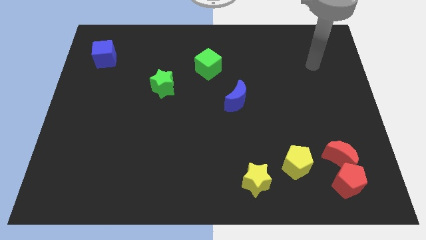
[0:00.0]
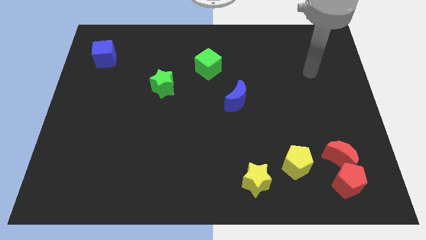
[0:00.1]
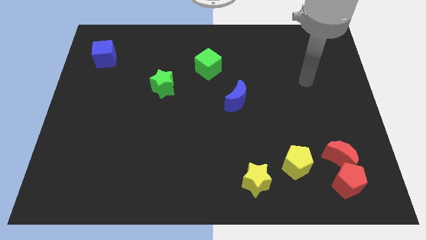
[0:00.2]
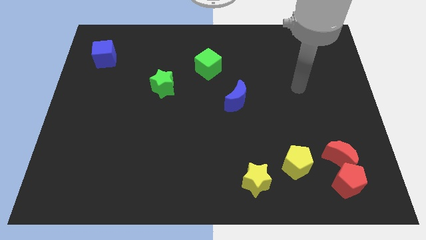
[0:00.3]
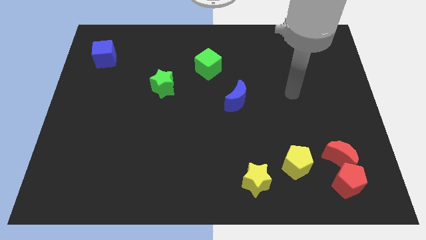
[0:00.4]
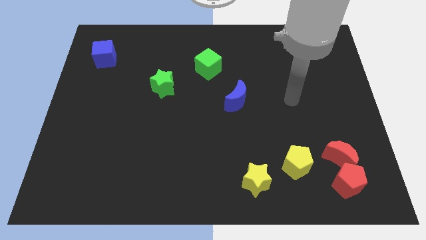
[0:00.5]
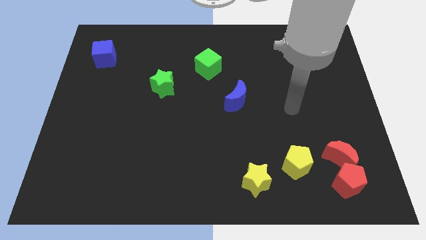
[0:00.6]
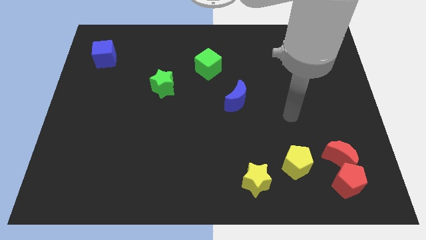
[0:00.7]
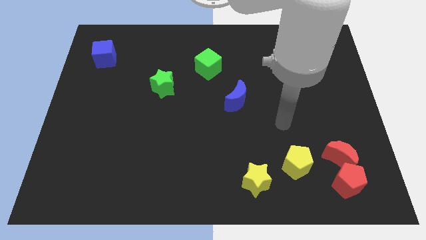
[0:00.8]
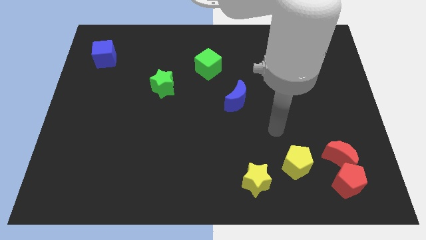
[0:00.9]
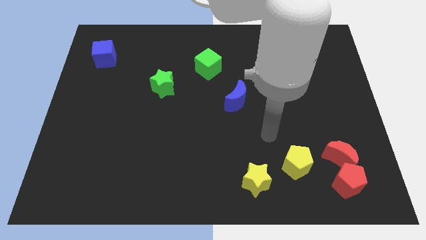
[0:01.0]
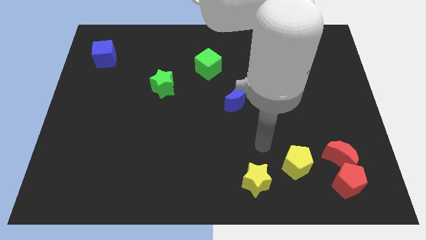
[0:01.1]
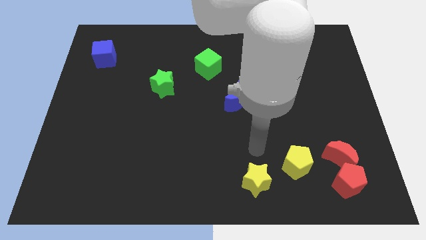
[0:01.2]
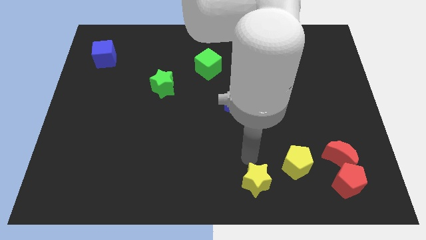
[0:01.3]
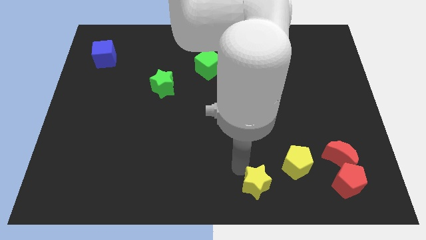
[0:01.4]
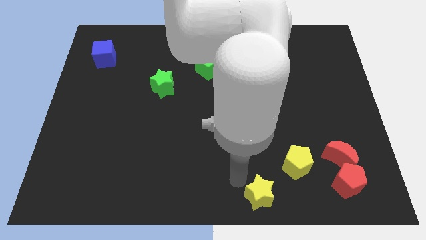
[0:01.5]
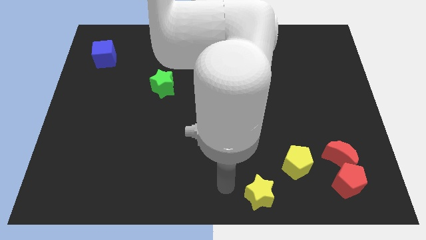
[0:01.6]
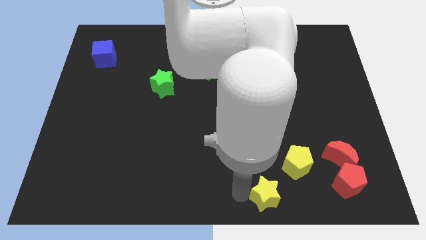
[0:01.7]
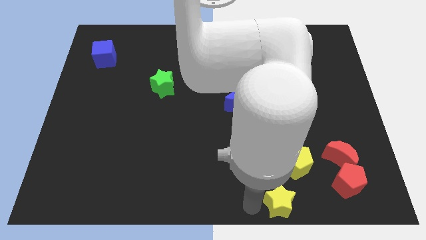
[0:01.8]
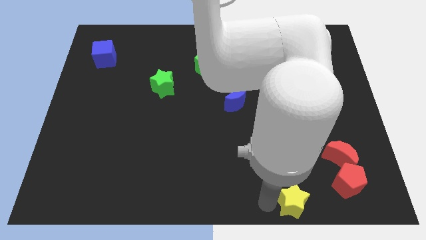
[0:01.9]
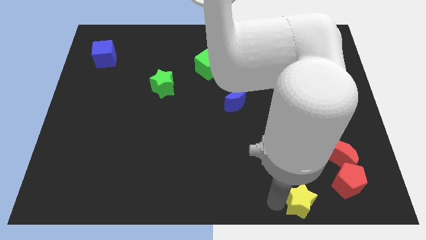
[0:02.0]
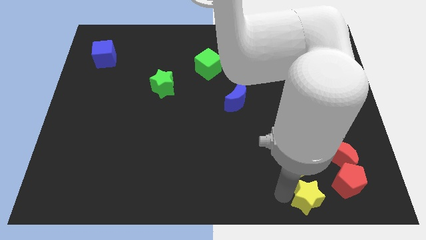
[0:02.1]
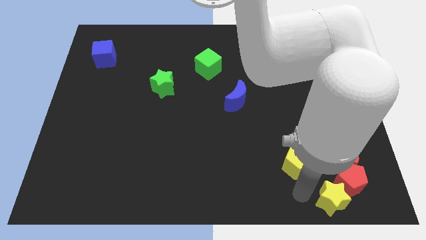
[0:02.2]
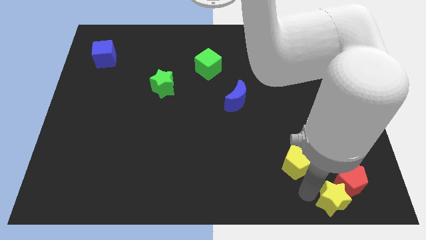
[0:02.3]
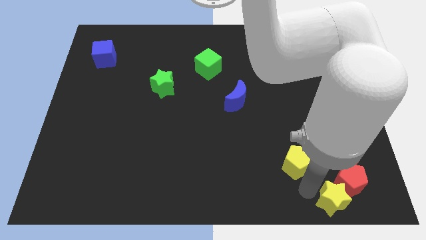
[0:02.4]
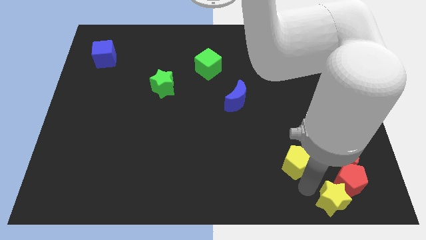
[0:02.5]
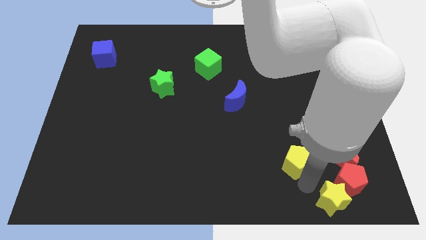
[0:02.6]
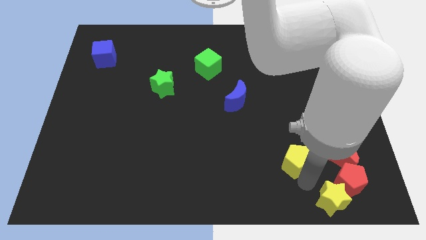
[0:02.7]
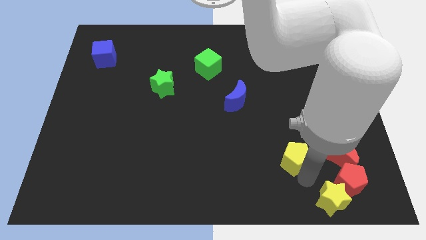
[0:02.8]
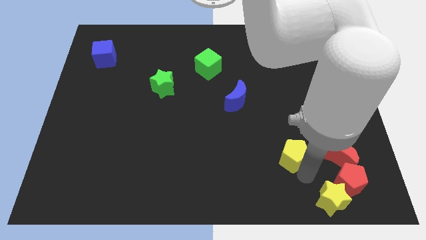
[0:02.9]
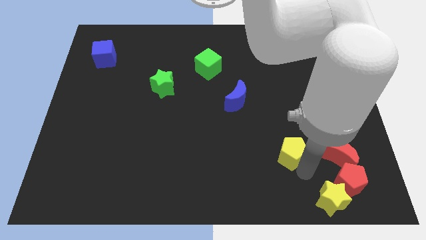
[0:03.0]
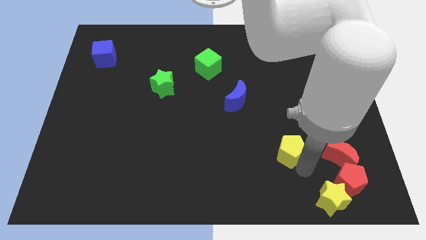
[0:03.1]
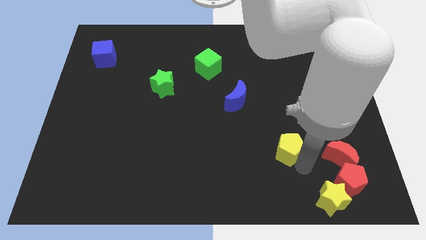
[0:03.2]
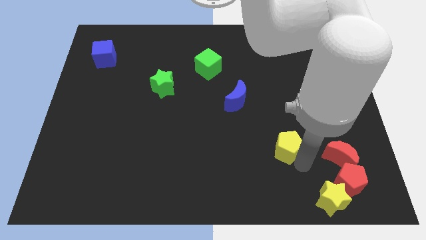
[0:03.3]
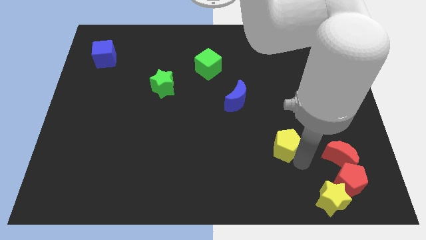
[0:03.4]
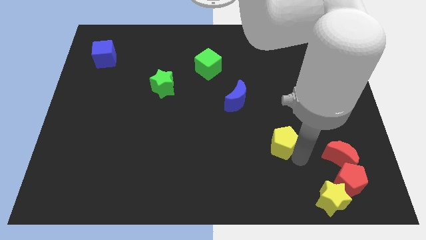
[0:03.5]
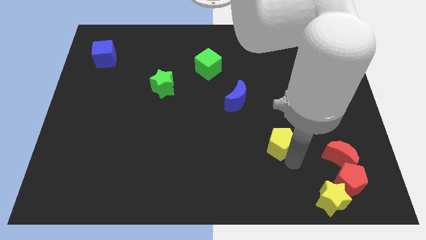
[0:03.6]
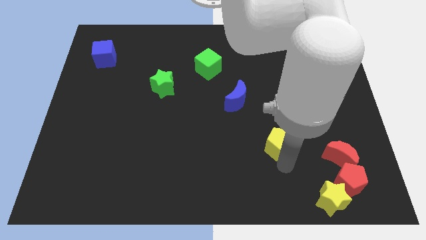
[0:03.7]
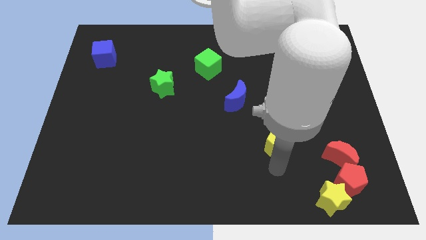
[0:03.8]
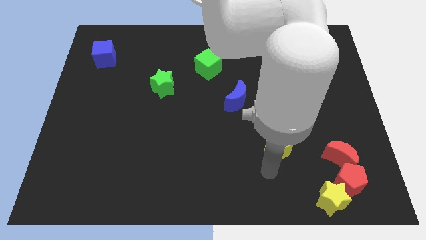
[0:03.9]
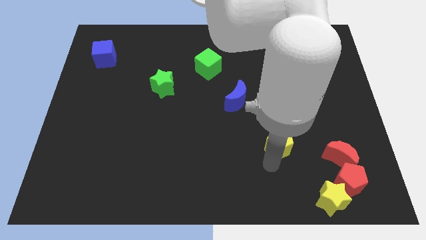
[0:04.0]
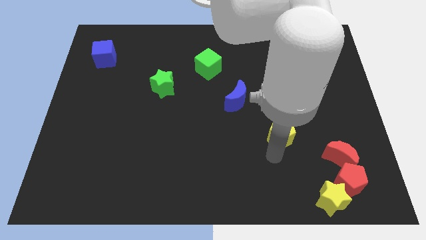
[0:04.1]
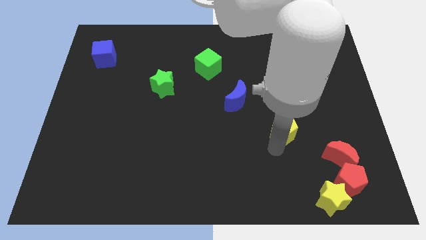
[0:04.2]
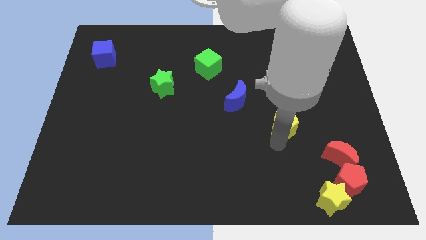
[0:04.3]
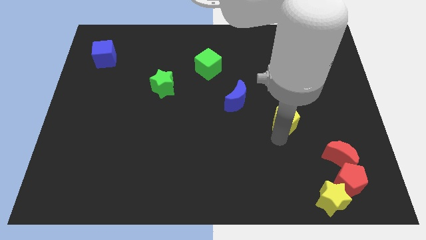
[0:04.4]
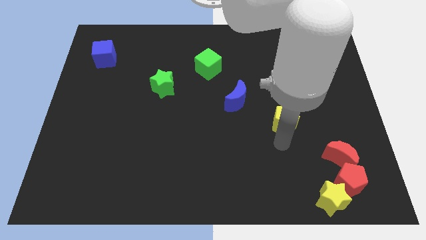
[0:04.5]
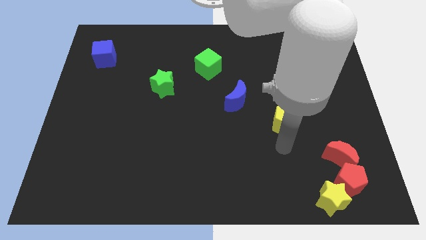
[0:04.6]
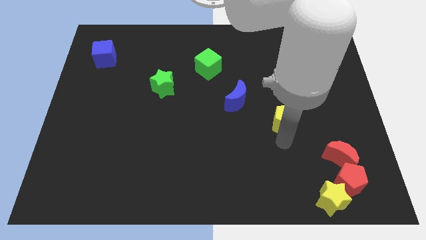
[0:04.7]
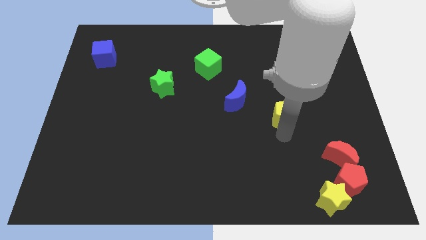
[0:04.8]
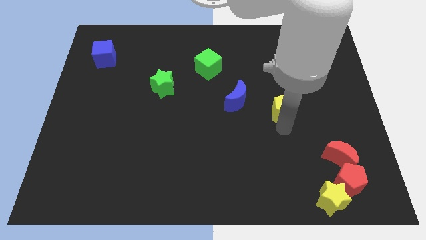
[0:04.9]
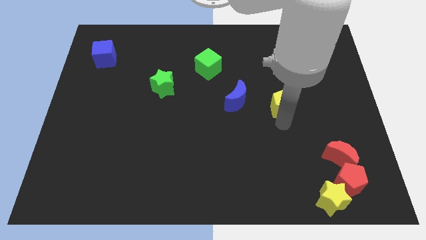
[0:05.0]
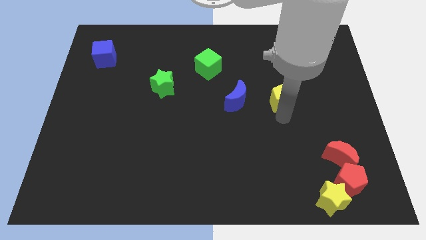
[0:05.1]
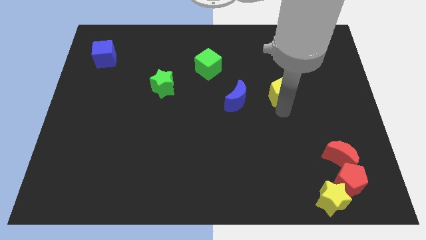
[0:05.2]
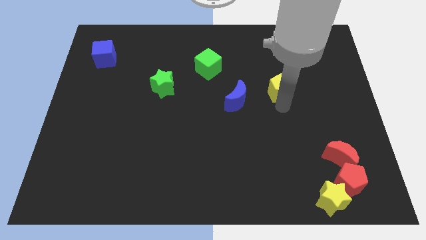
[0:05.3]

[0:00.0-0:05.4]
slide the yellow pentagon upwards

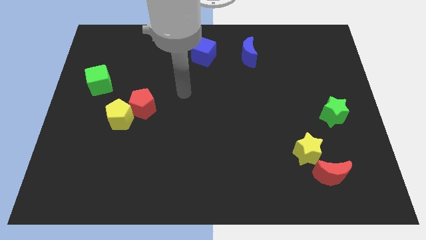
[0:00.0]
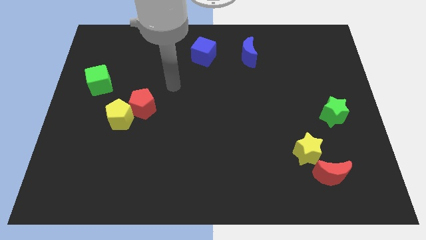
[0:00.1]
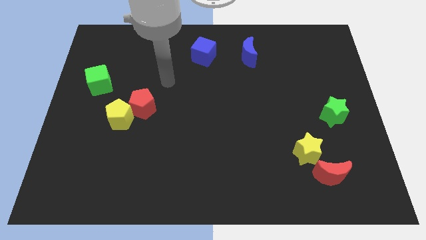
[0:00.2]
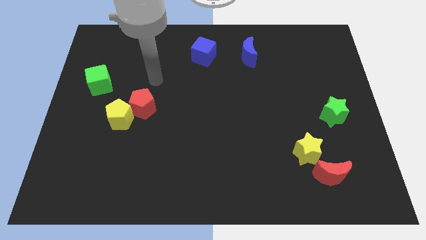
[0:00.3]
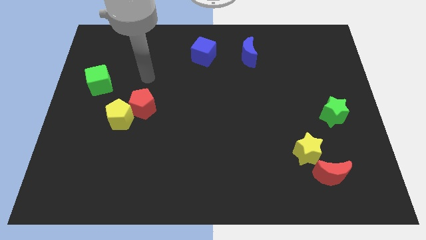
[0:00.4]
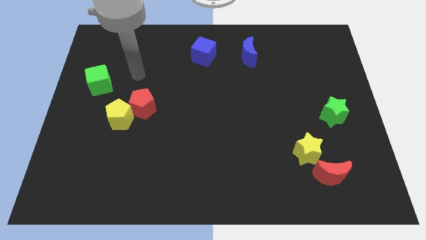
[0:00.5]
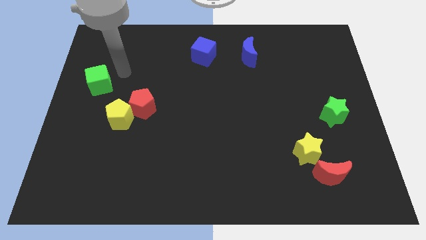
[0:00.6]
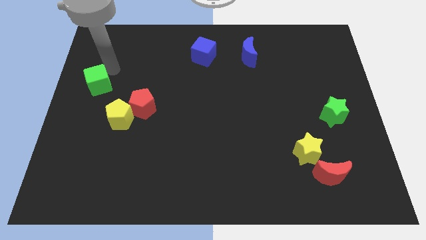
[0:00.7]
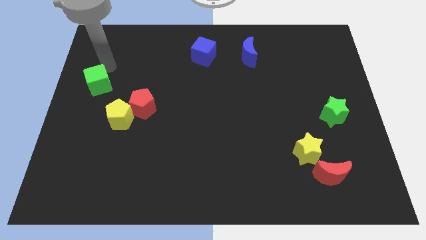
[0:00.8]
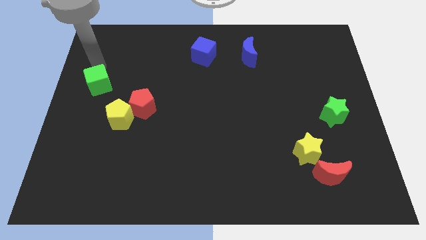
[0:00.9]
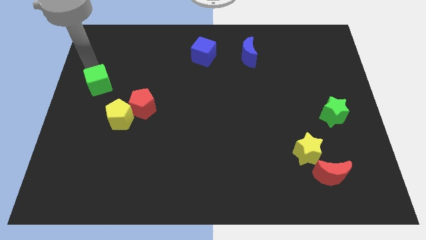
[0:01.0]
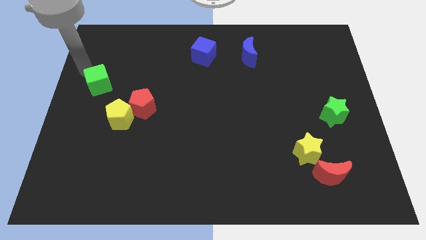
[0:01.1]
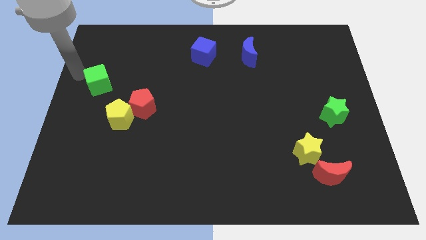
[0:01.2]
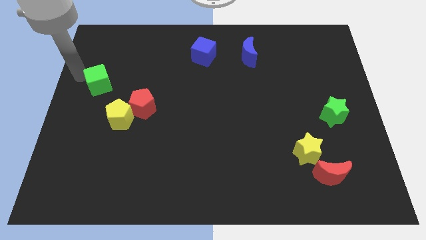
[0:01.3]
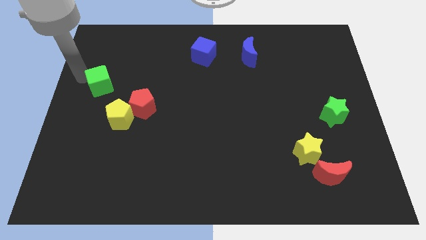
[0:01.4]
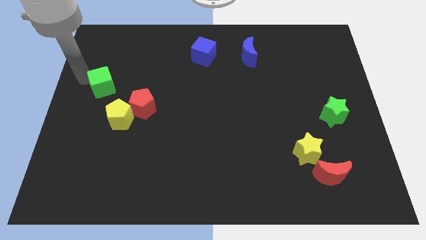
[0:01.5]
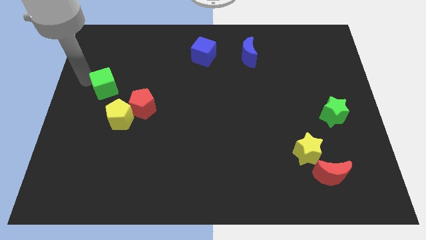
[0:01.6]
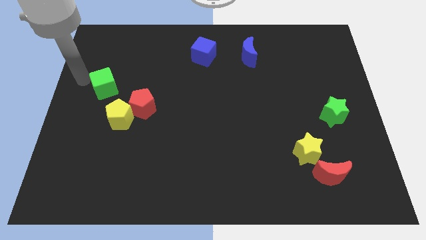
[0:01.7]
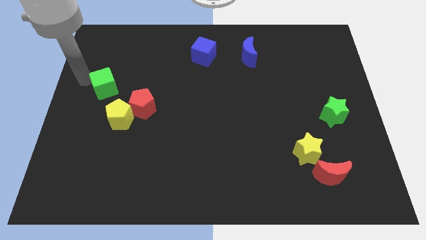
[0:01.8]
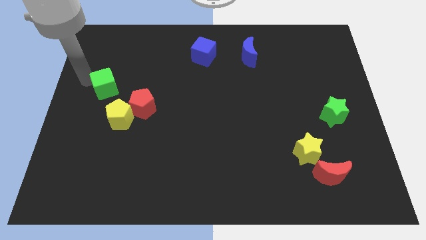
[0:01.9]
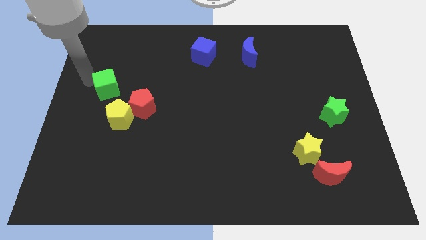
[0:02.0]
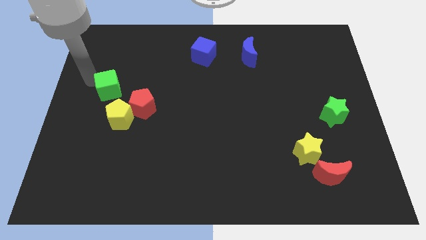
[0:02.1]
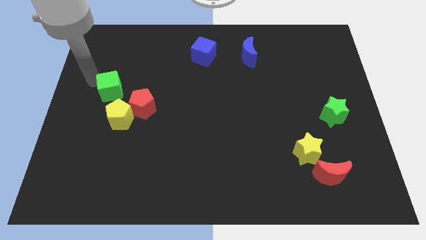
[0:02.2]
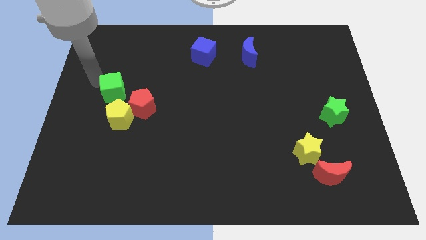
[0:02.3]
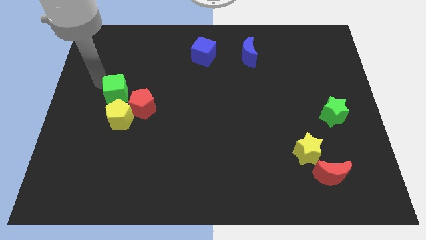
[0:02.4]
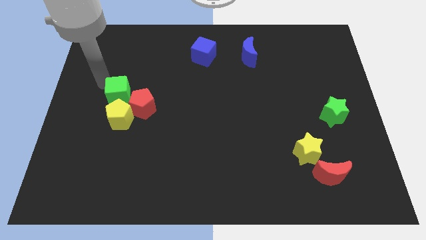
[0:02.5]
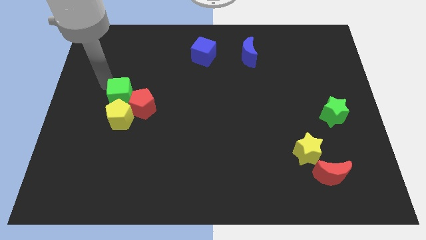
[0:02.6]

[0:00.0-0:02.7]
slide the green cube down and right diagonally a little
